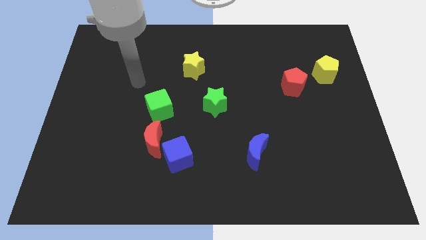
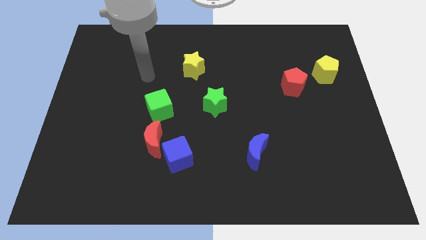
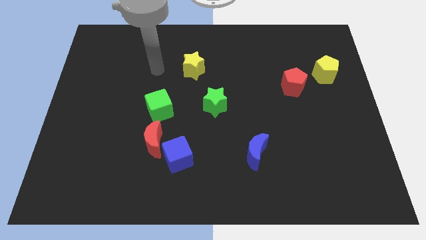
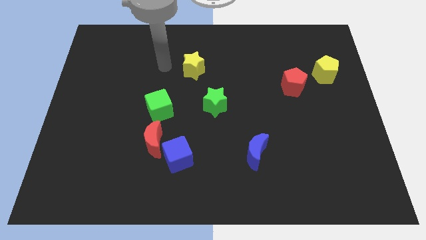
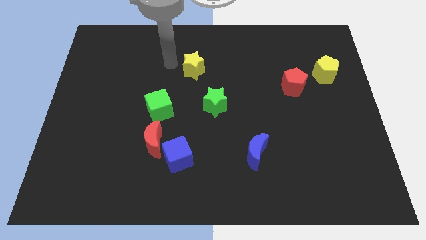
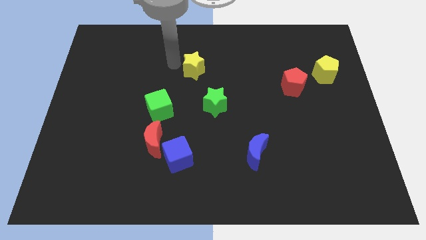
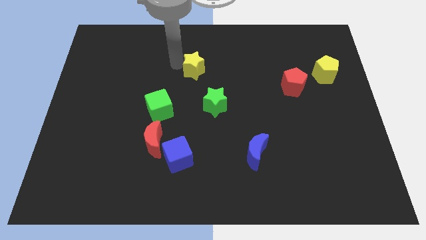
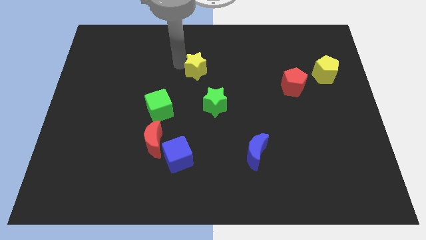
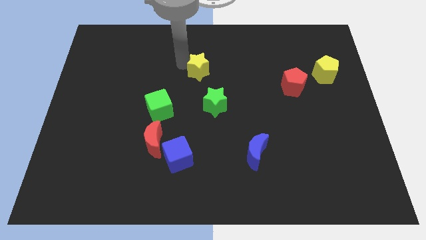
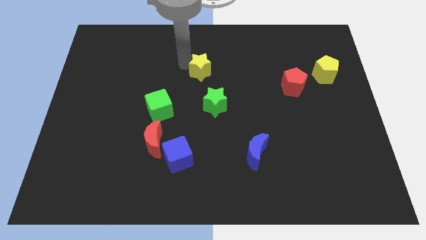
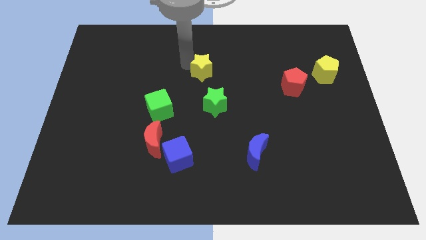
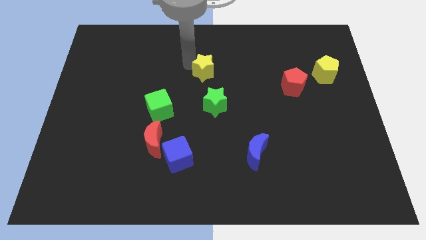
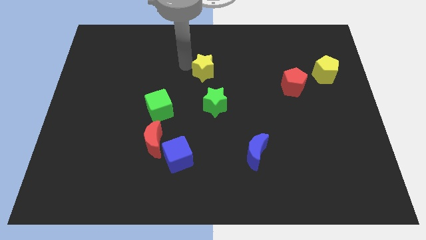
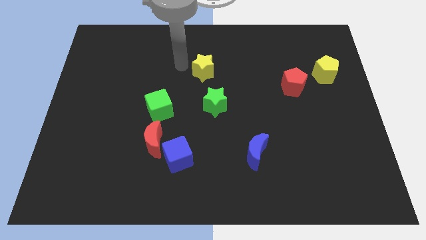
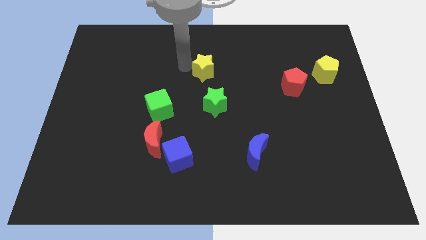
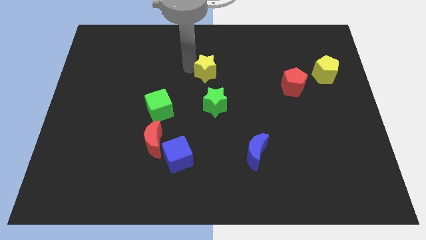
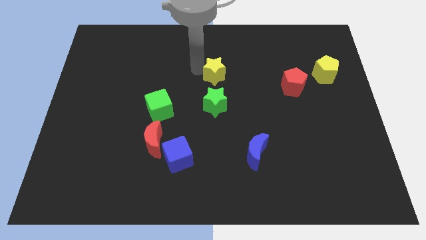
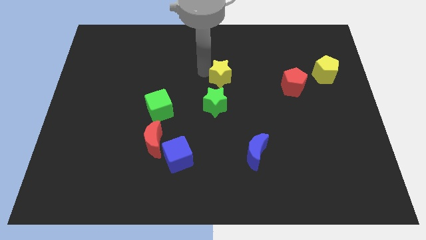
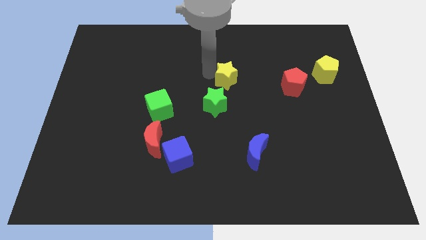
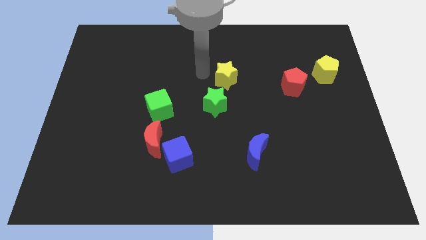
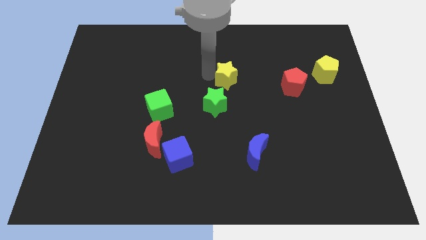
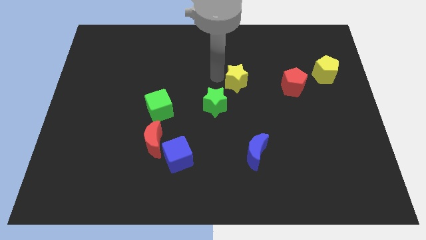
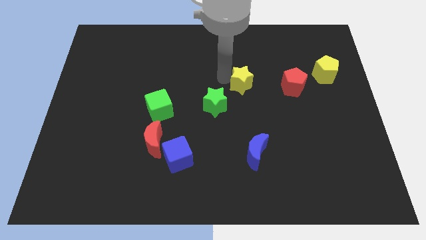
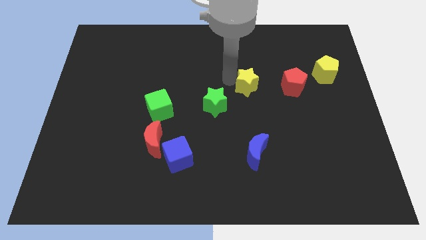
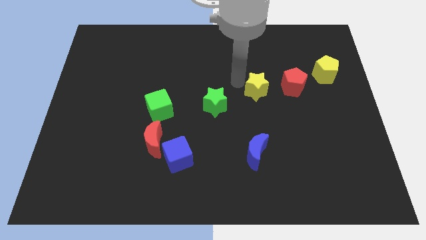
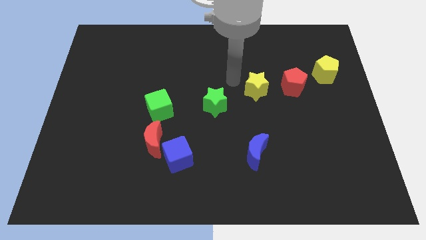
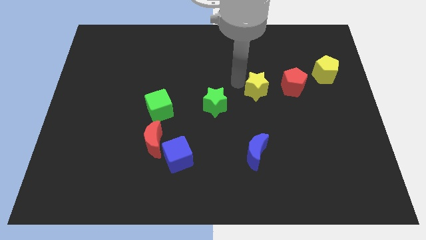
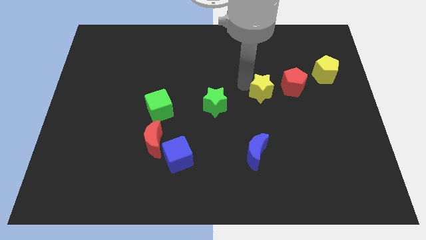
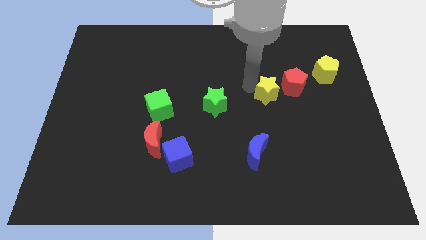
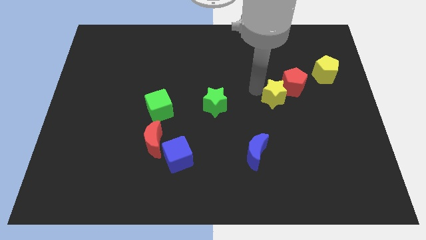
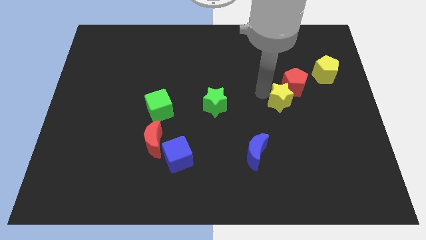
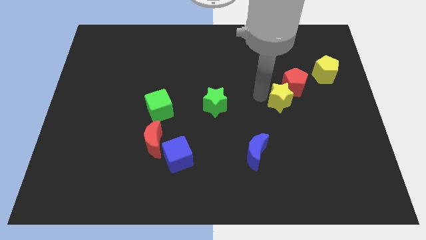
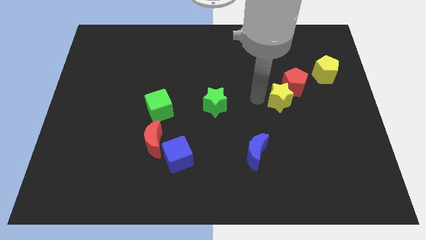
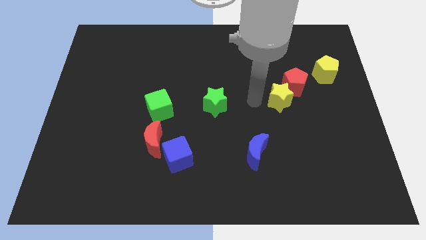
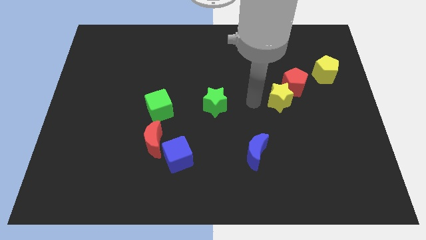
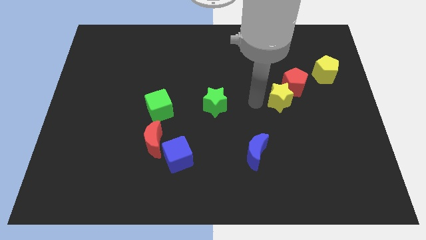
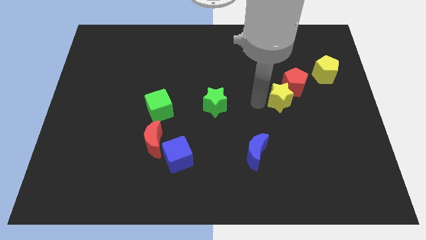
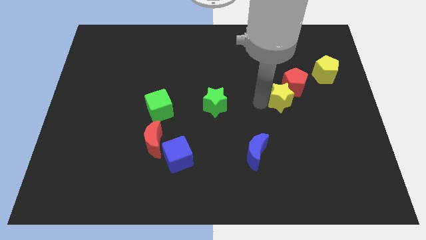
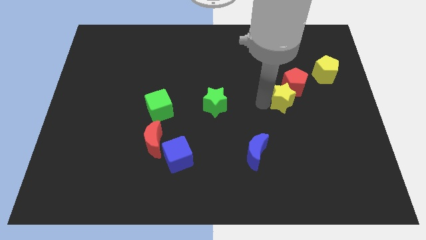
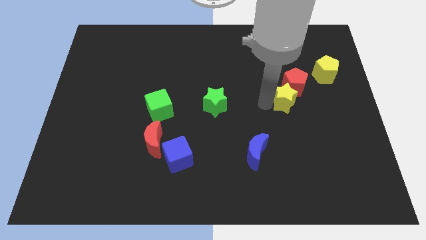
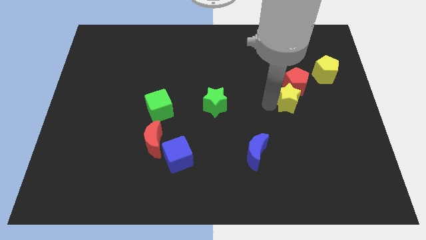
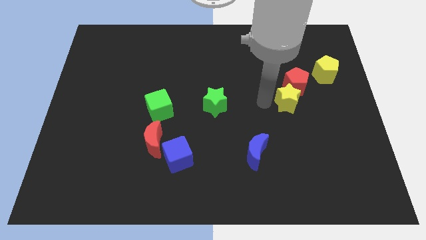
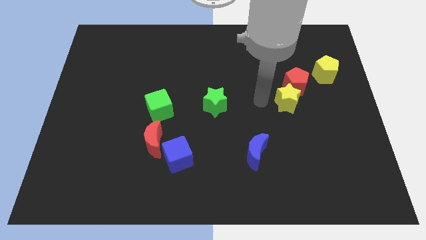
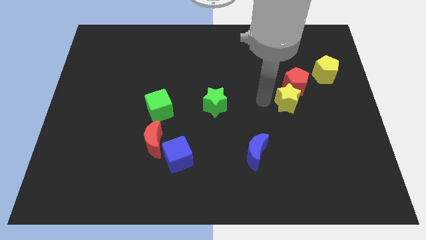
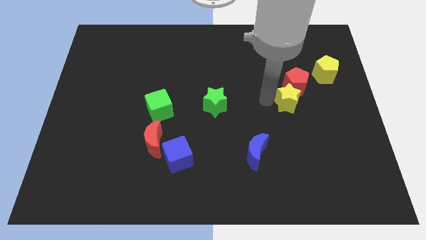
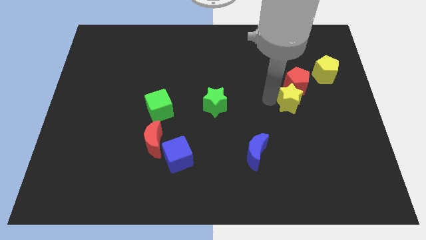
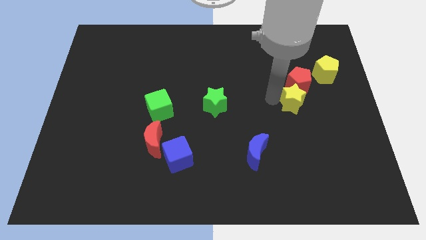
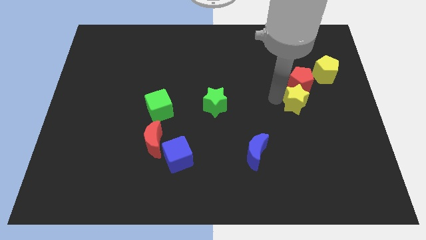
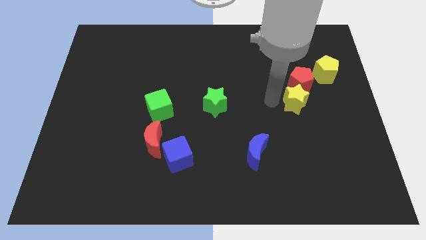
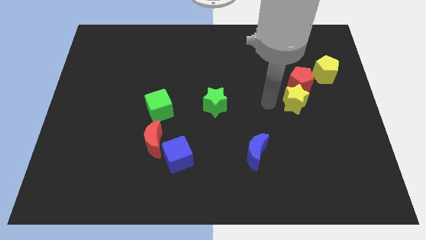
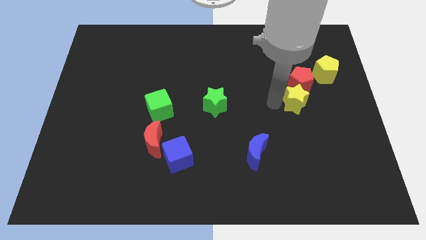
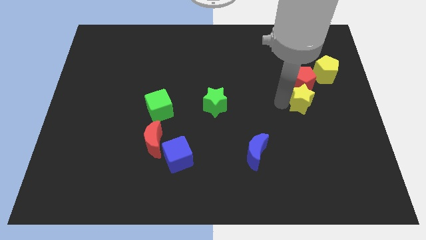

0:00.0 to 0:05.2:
slide the yellow star diagonally down and to the right of the red pentagon

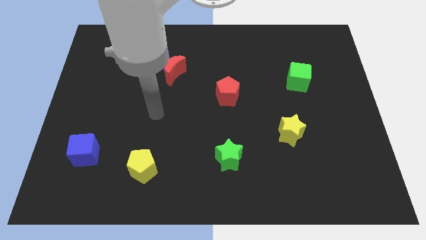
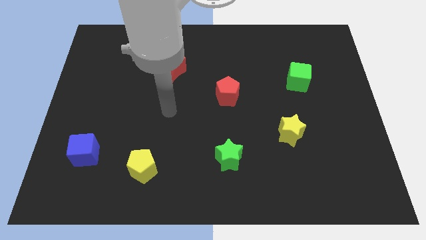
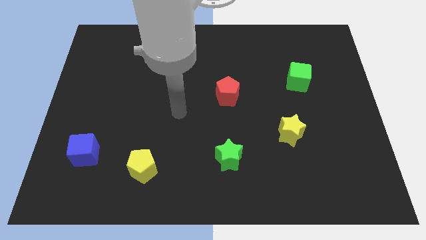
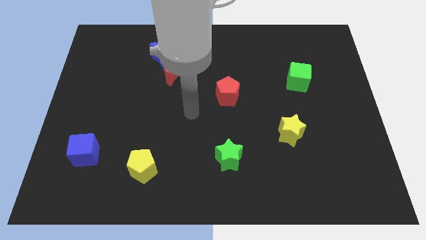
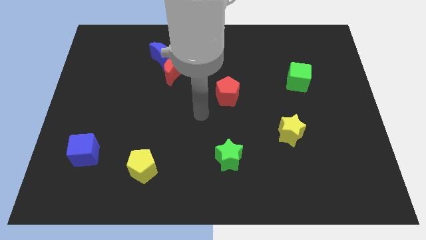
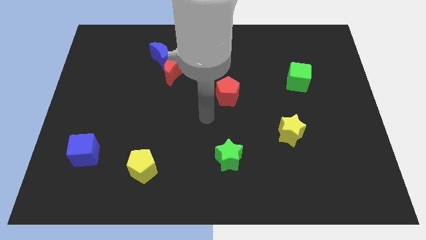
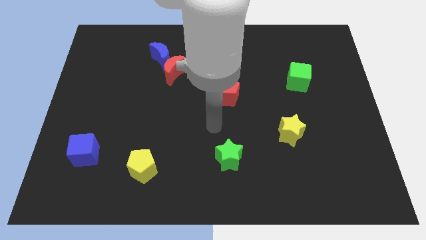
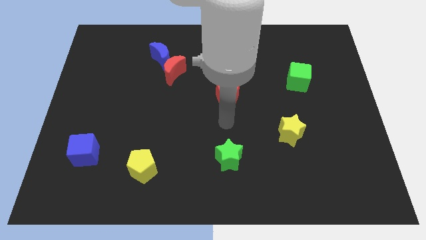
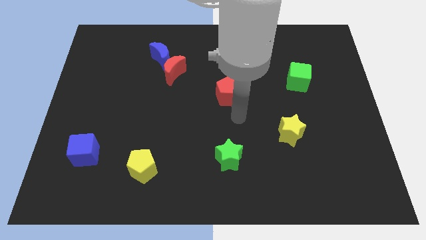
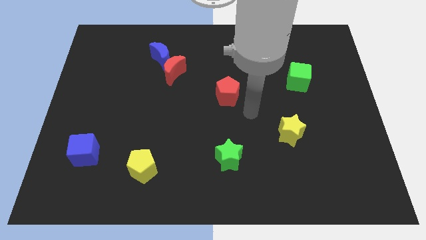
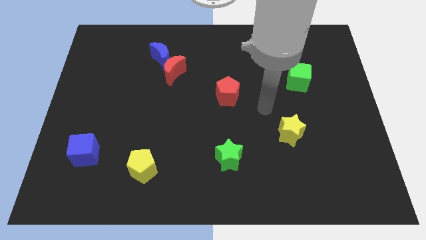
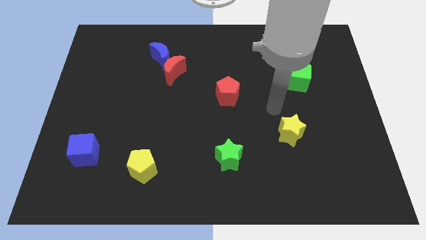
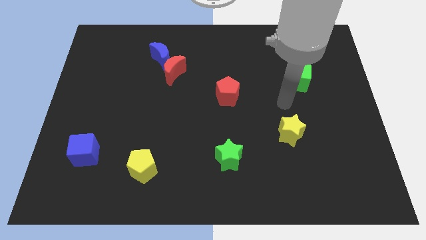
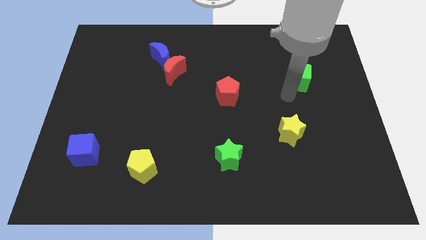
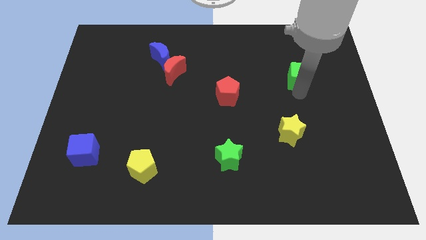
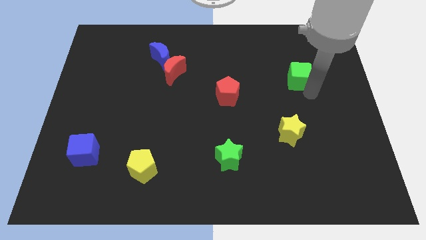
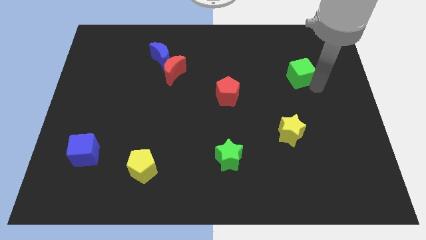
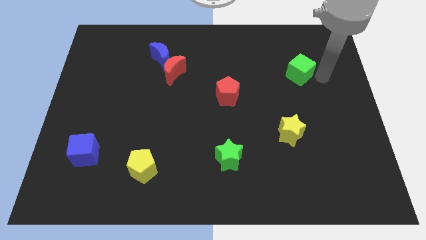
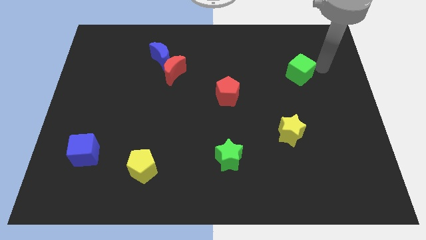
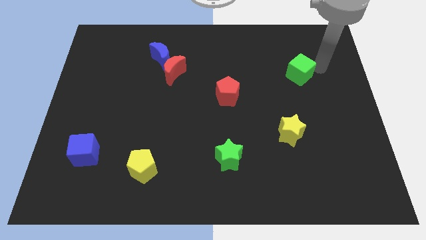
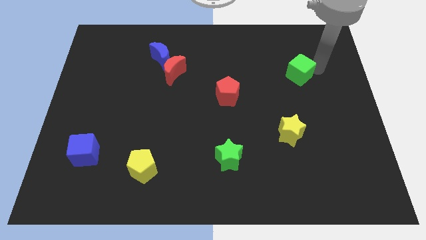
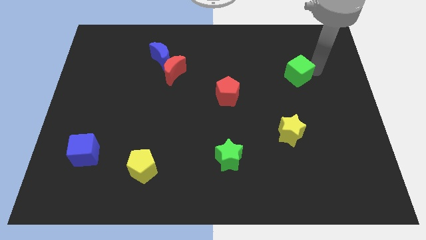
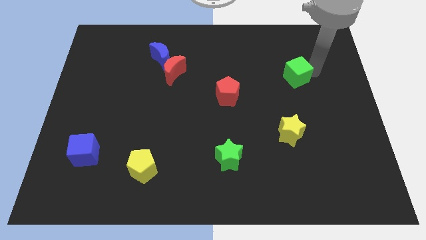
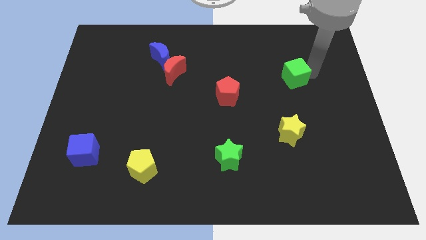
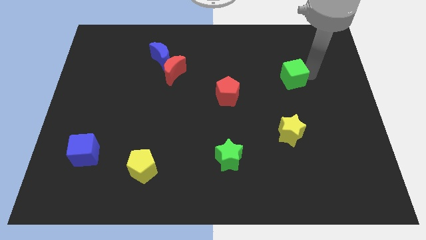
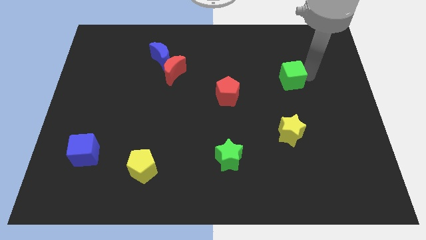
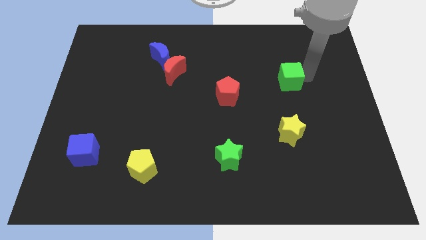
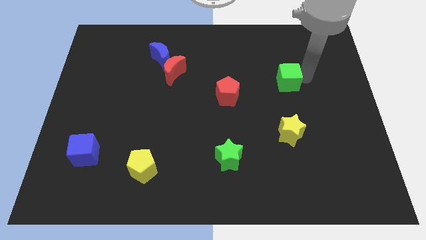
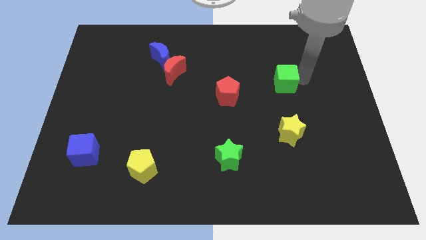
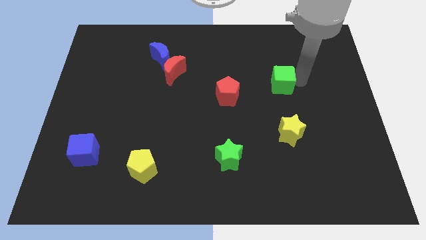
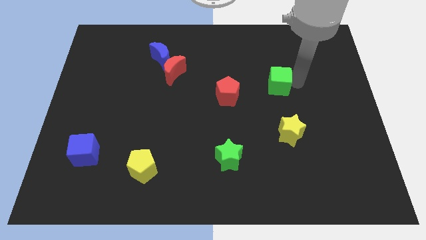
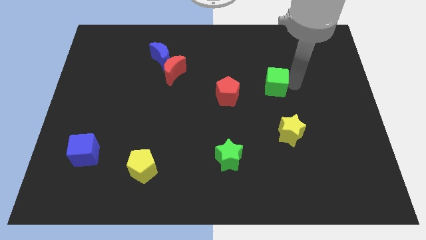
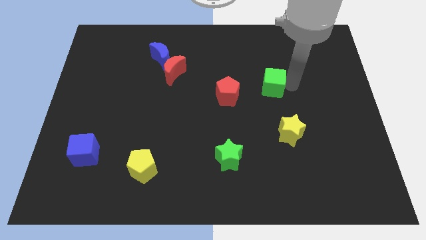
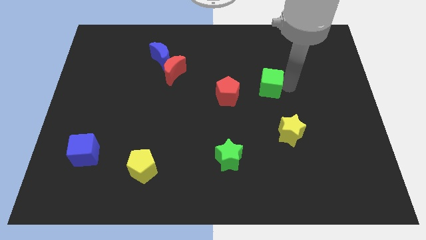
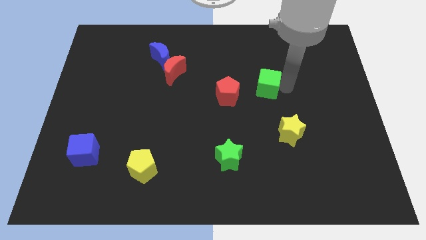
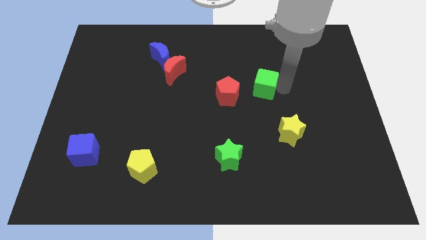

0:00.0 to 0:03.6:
slide the green cube to the top right side of the red pentagon
